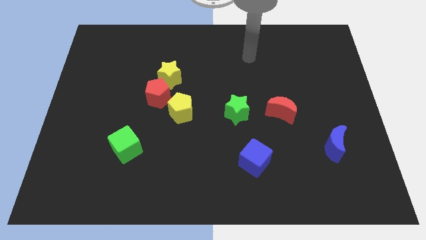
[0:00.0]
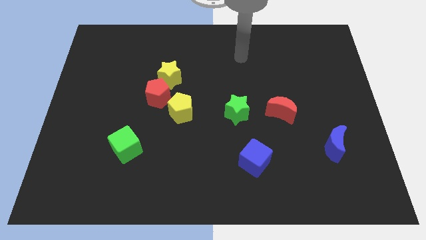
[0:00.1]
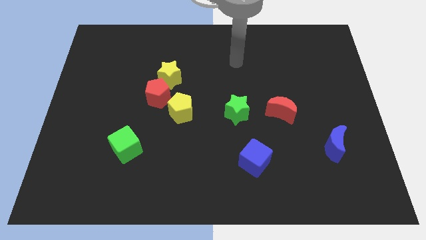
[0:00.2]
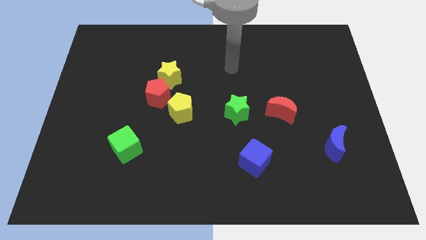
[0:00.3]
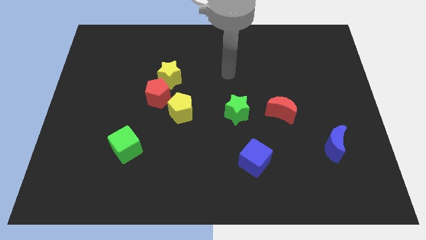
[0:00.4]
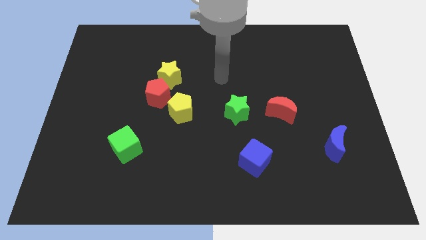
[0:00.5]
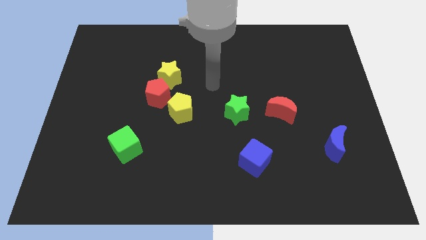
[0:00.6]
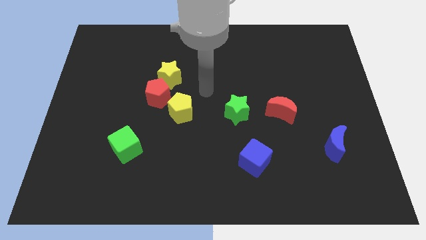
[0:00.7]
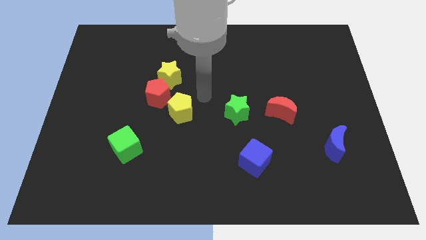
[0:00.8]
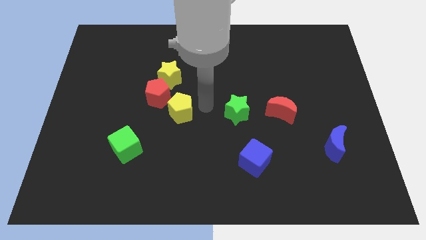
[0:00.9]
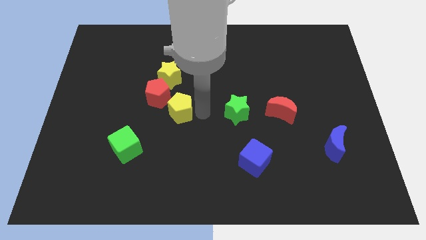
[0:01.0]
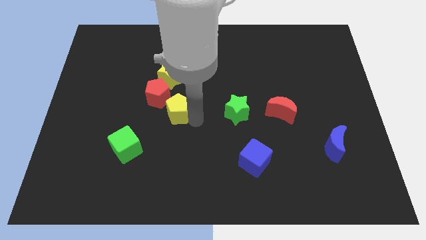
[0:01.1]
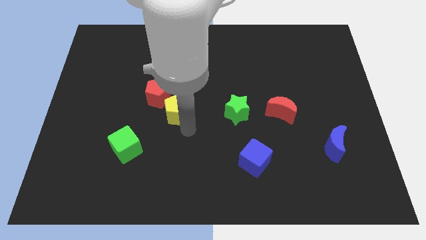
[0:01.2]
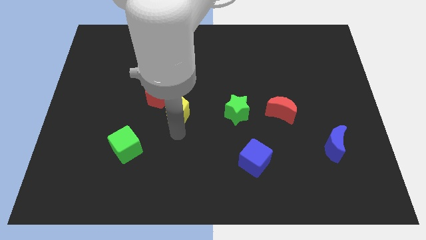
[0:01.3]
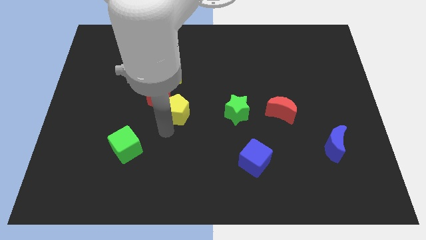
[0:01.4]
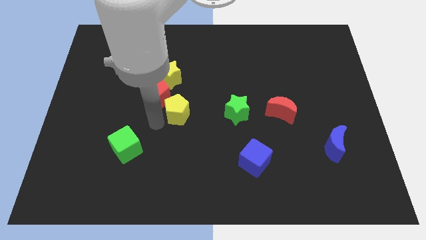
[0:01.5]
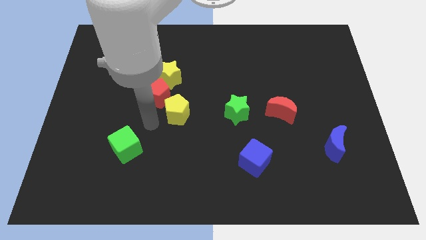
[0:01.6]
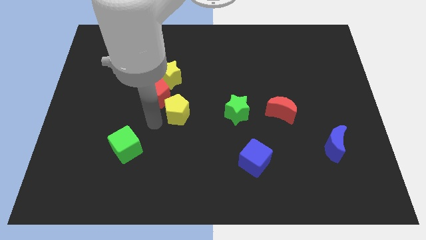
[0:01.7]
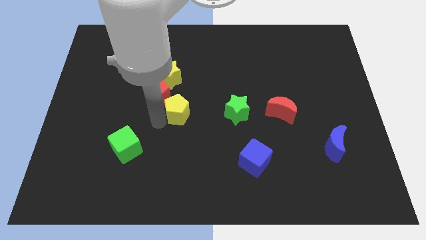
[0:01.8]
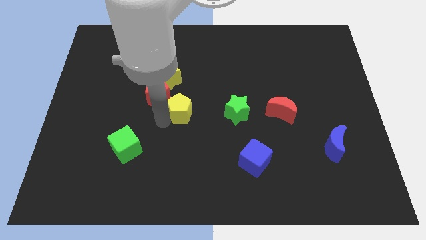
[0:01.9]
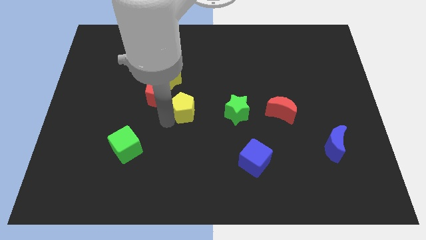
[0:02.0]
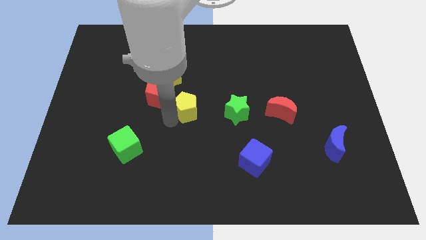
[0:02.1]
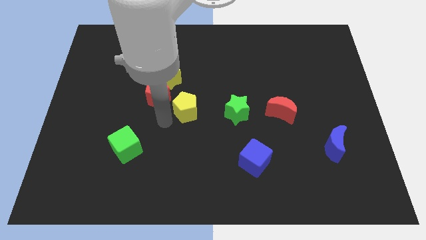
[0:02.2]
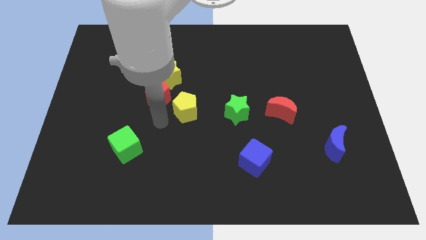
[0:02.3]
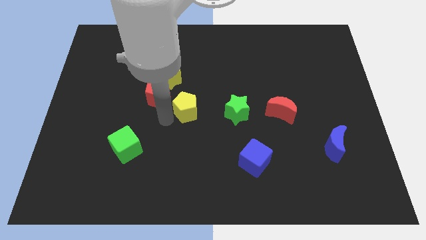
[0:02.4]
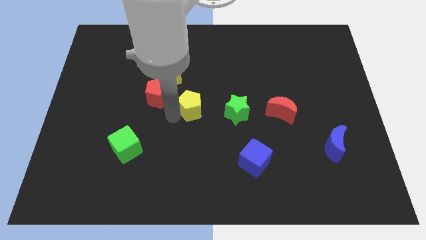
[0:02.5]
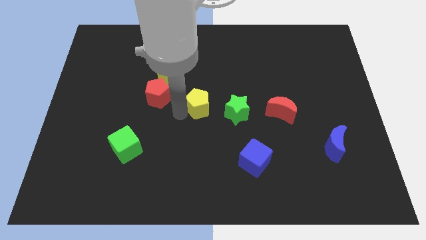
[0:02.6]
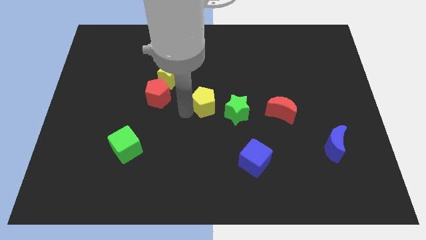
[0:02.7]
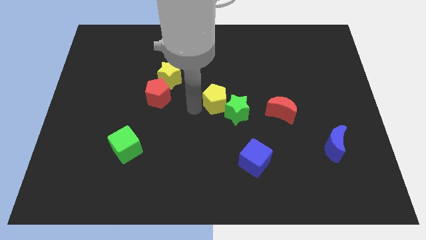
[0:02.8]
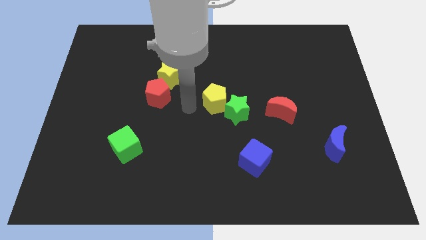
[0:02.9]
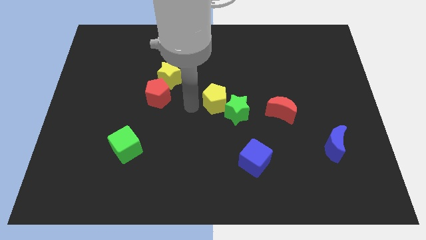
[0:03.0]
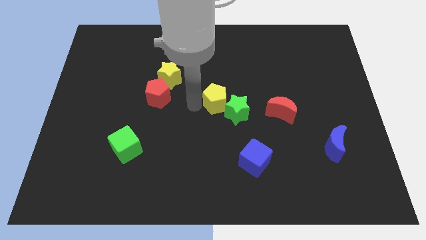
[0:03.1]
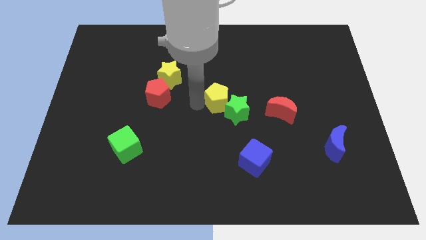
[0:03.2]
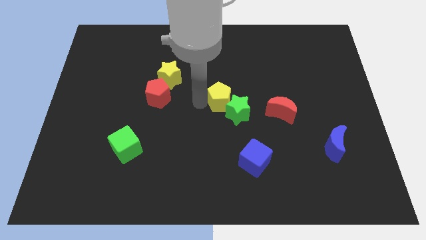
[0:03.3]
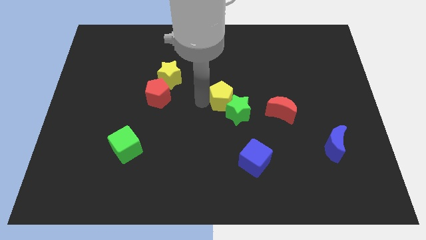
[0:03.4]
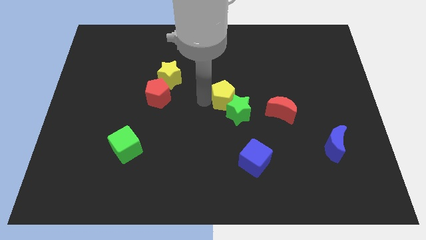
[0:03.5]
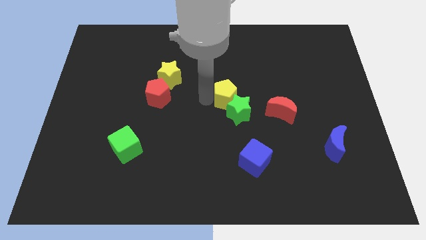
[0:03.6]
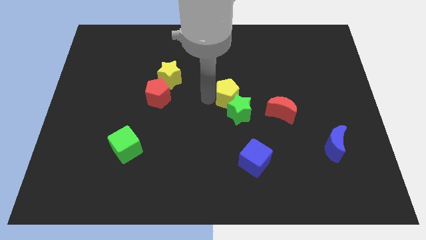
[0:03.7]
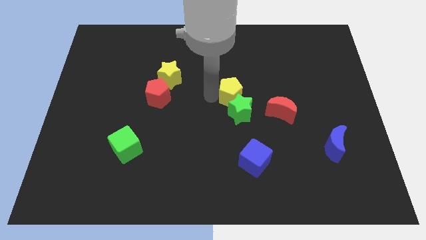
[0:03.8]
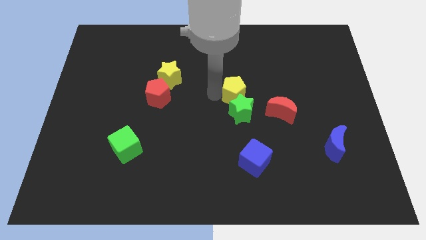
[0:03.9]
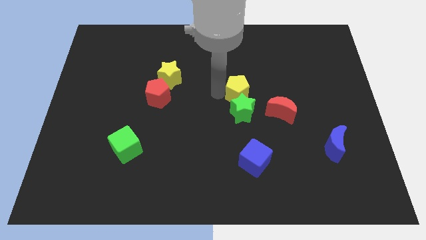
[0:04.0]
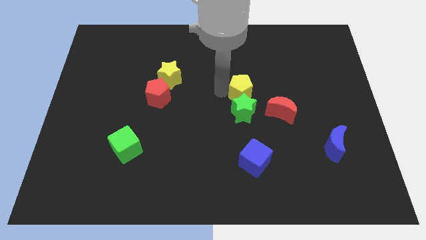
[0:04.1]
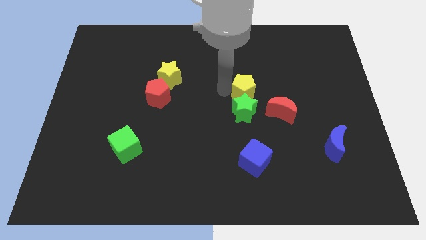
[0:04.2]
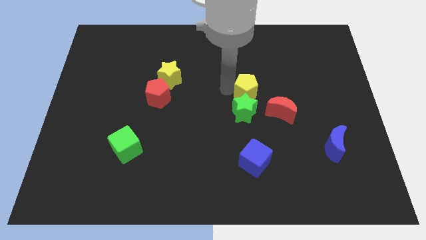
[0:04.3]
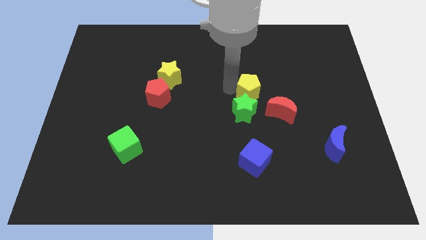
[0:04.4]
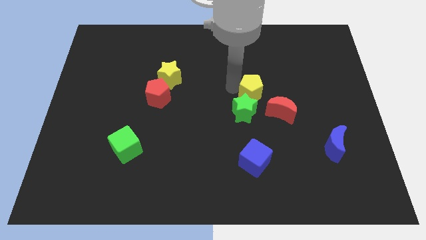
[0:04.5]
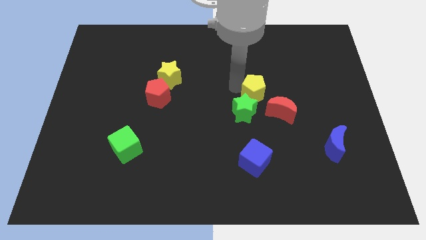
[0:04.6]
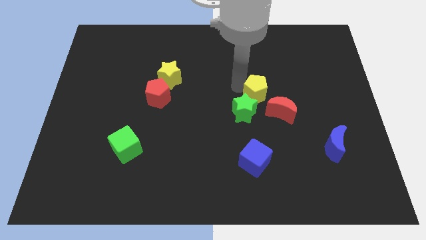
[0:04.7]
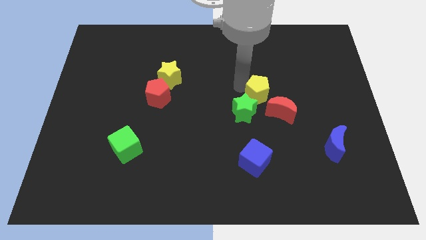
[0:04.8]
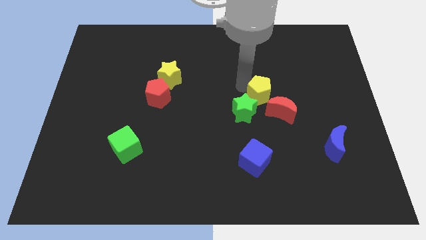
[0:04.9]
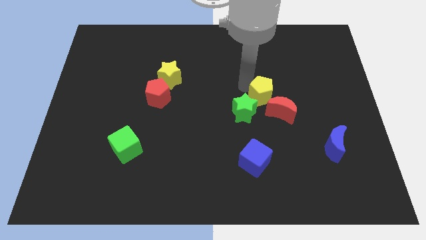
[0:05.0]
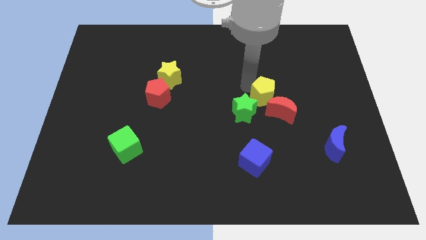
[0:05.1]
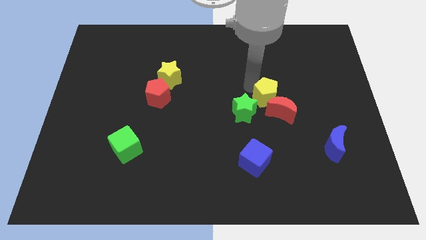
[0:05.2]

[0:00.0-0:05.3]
push the yellow pentagon next to the red moon

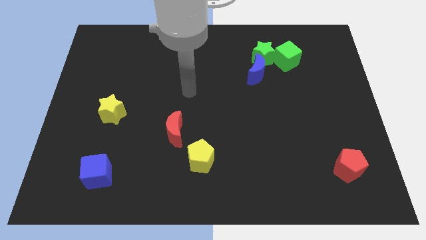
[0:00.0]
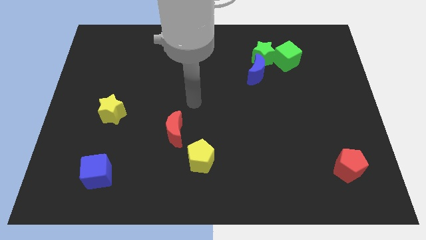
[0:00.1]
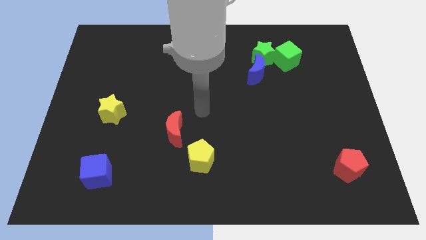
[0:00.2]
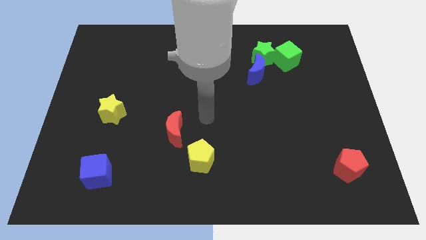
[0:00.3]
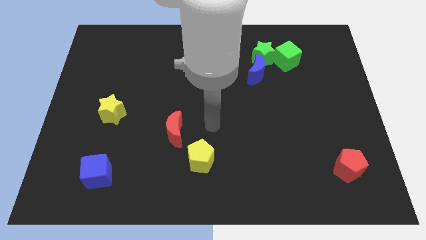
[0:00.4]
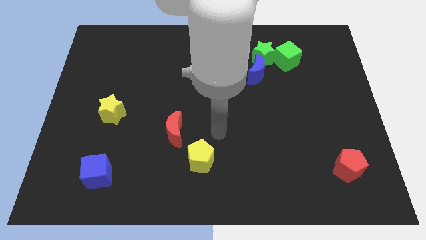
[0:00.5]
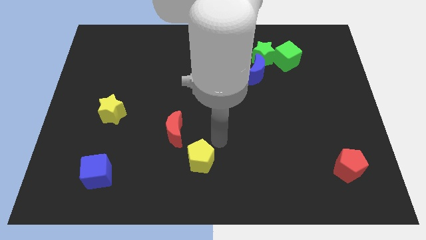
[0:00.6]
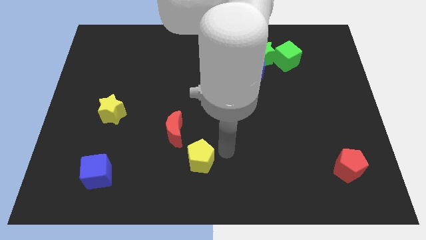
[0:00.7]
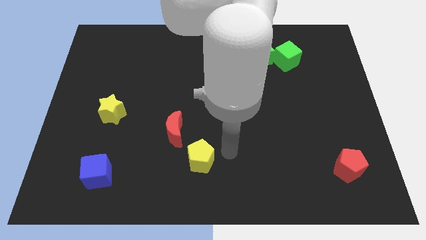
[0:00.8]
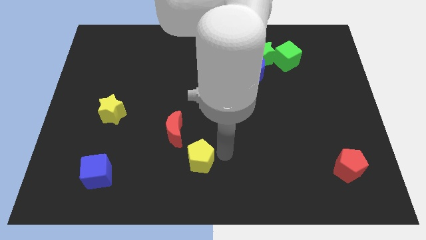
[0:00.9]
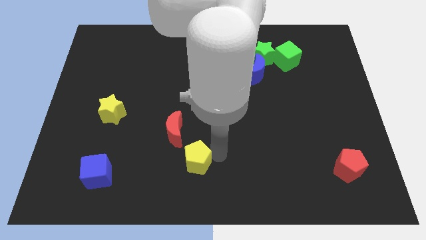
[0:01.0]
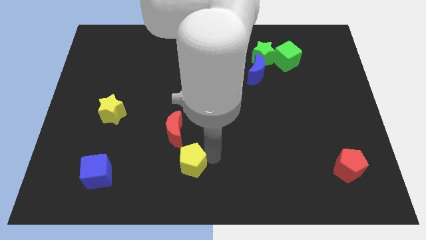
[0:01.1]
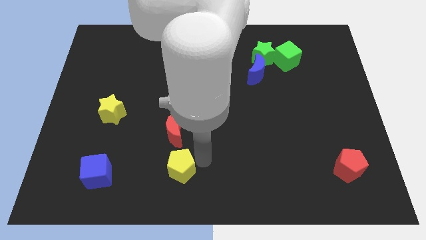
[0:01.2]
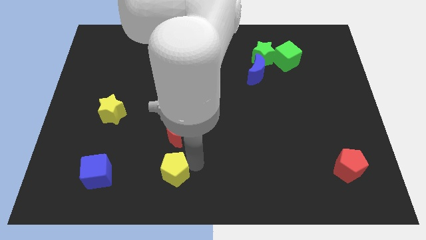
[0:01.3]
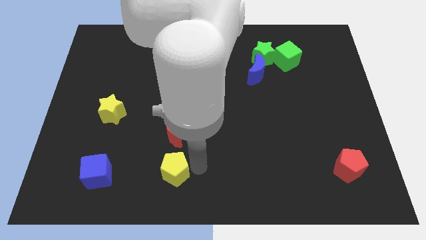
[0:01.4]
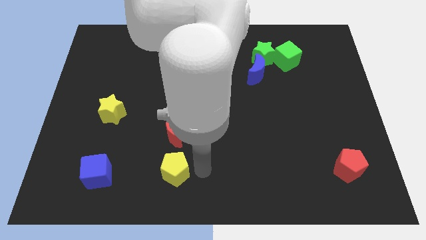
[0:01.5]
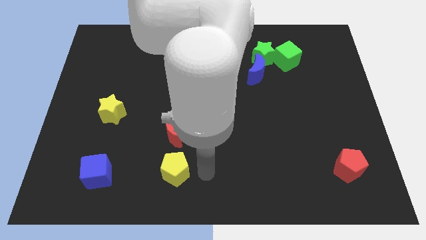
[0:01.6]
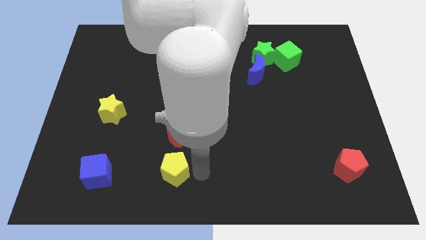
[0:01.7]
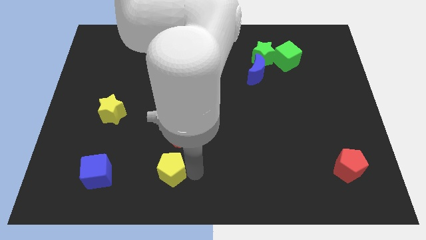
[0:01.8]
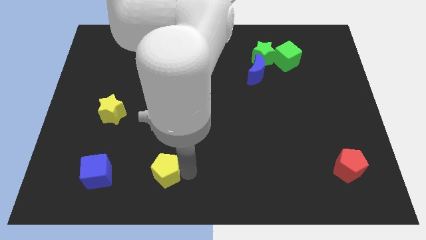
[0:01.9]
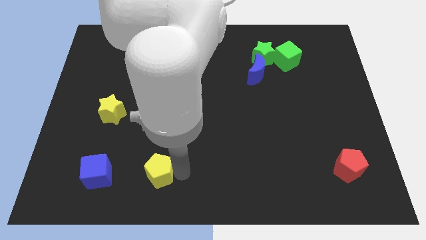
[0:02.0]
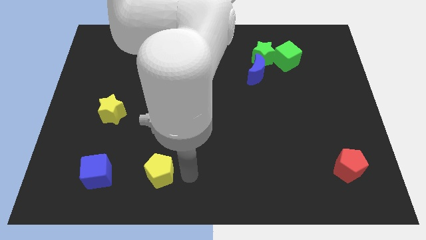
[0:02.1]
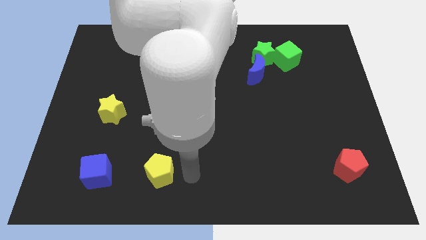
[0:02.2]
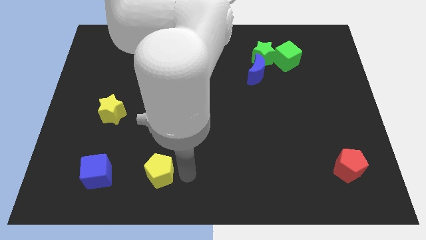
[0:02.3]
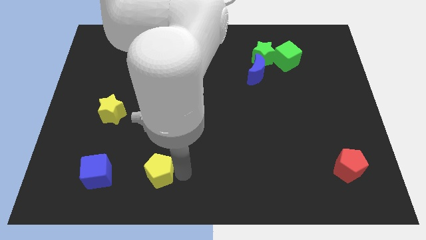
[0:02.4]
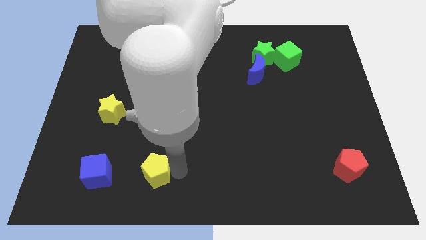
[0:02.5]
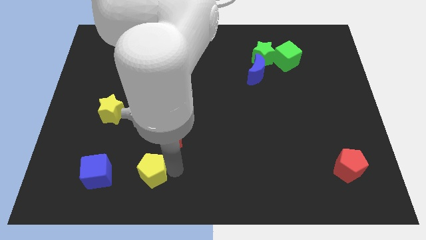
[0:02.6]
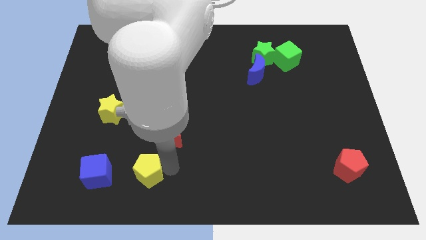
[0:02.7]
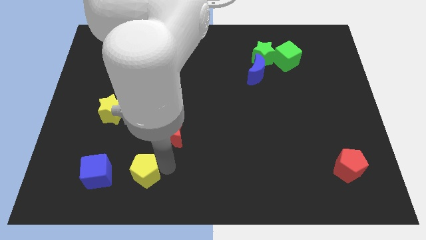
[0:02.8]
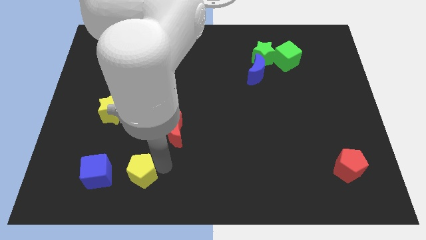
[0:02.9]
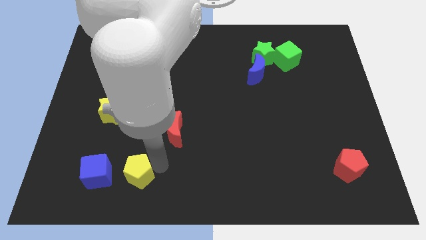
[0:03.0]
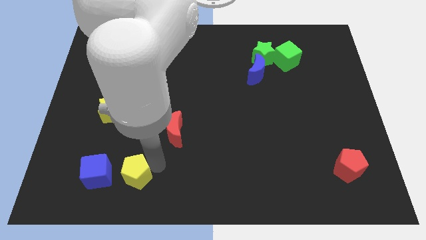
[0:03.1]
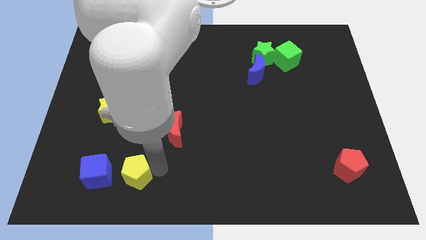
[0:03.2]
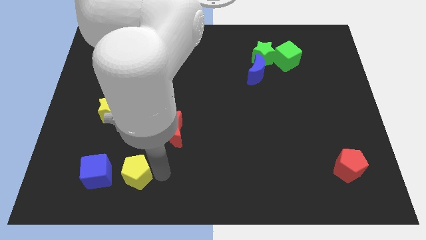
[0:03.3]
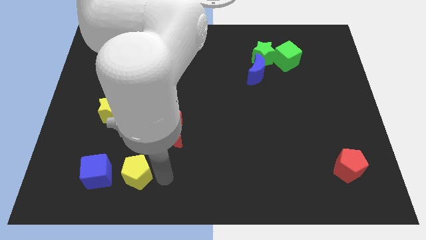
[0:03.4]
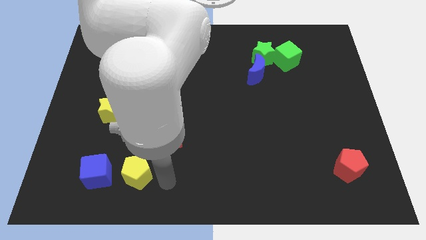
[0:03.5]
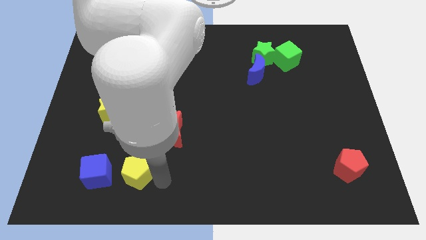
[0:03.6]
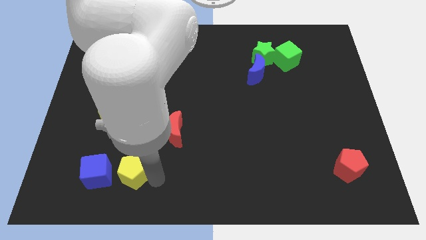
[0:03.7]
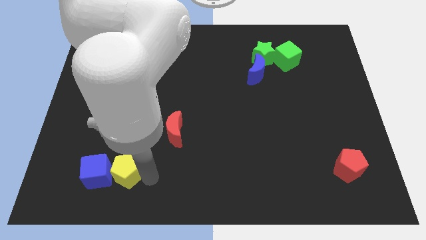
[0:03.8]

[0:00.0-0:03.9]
put the yellow pentagon close to the blue cube
